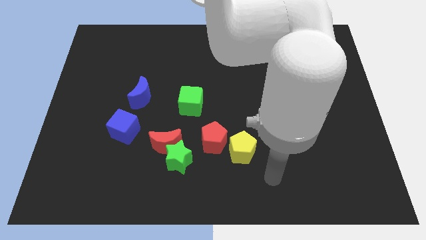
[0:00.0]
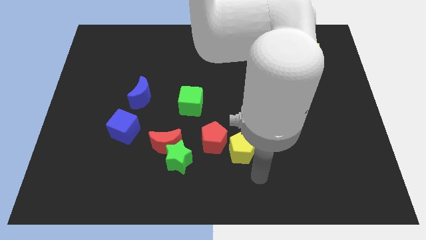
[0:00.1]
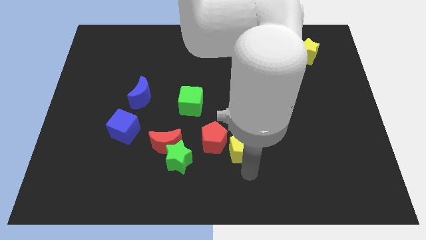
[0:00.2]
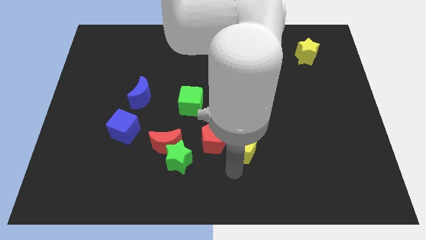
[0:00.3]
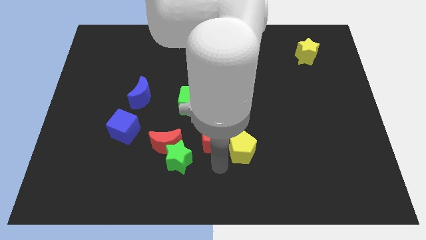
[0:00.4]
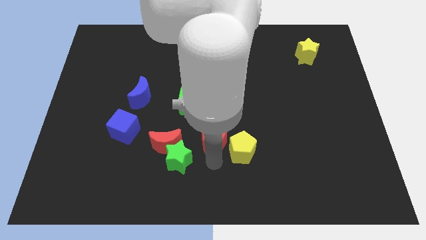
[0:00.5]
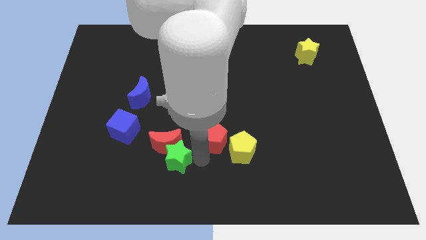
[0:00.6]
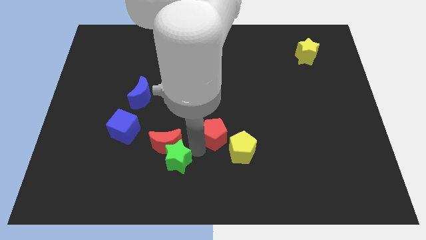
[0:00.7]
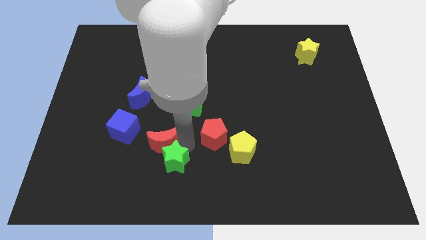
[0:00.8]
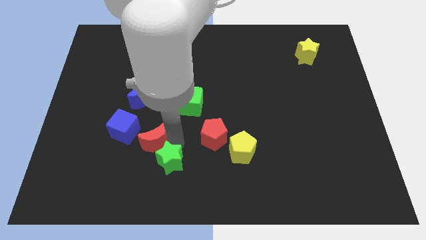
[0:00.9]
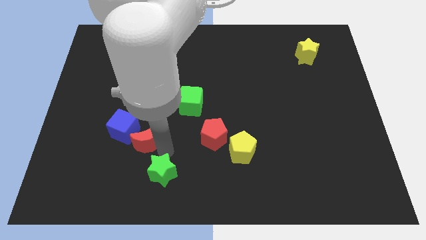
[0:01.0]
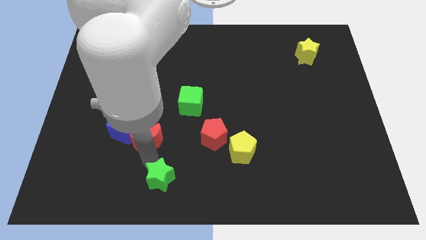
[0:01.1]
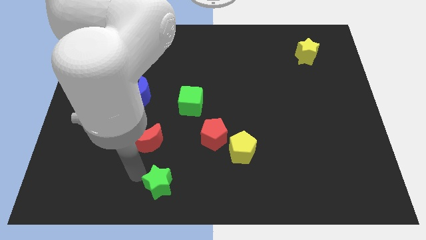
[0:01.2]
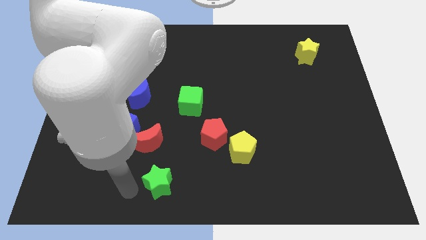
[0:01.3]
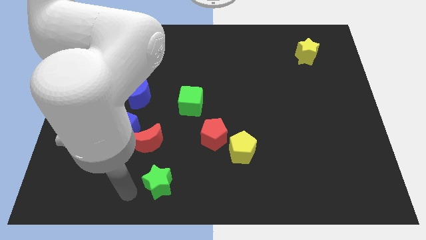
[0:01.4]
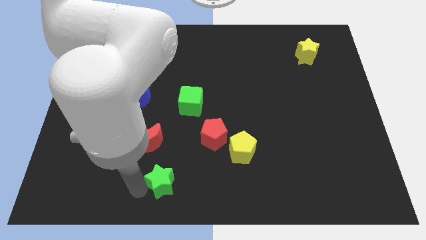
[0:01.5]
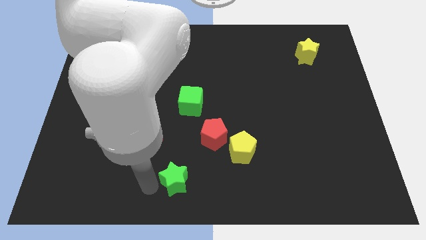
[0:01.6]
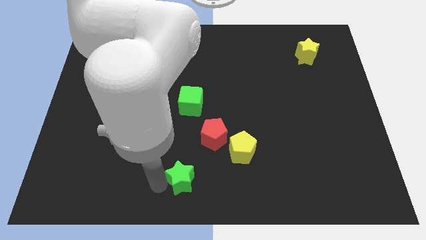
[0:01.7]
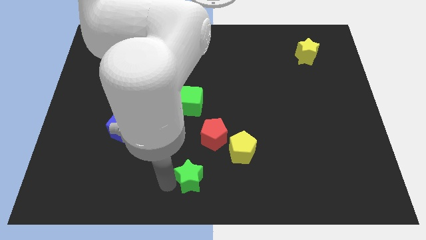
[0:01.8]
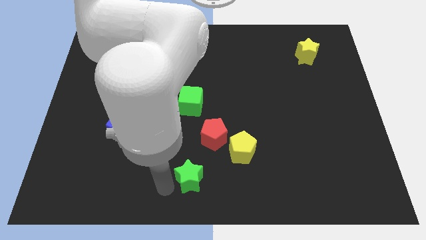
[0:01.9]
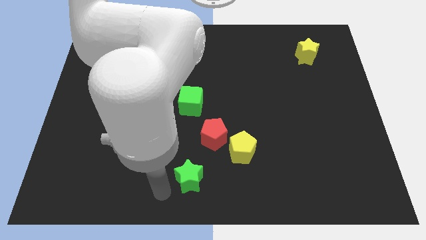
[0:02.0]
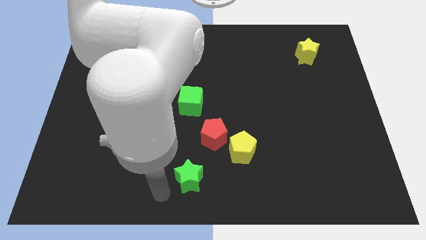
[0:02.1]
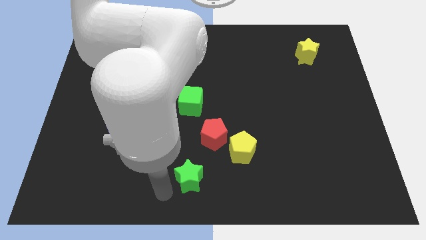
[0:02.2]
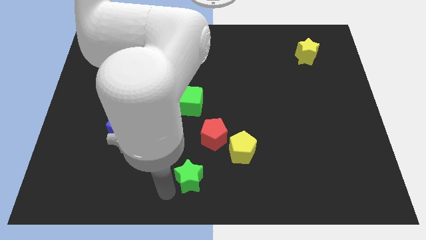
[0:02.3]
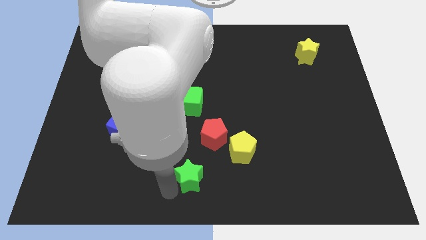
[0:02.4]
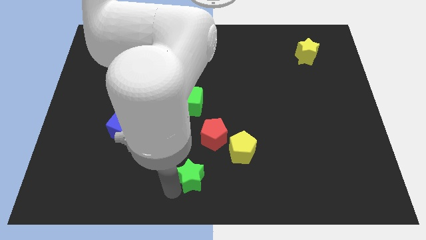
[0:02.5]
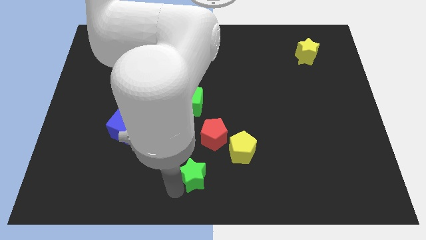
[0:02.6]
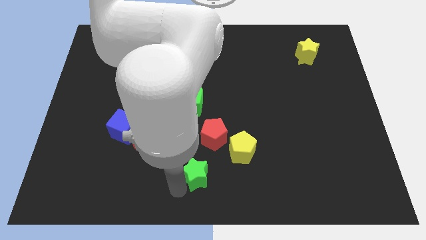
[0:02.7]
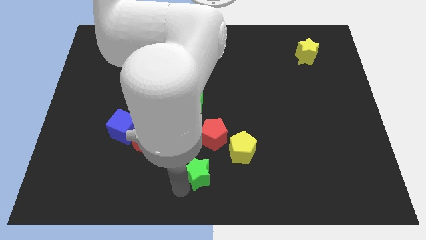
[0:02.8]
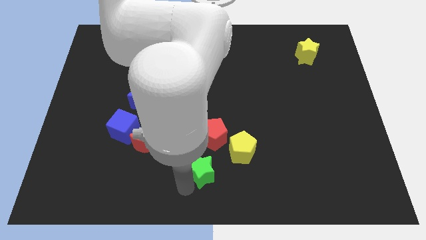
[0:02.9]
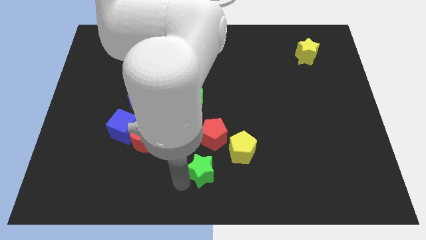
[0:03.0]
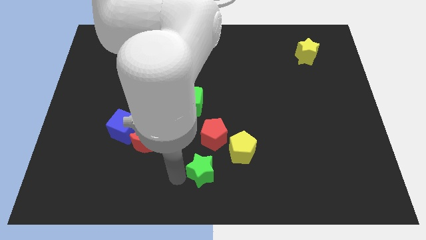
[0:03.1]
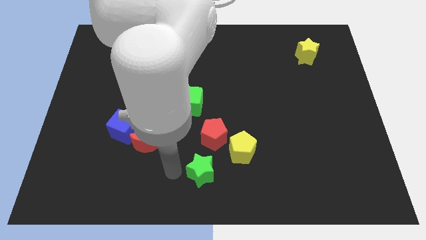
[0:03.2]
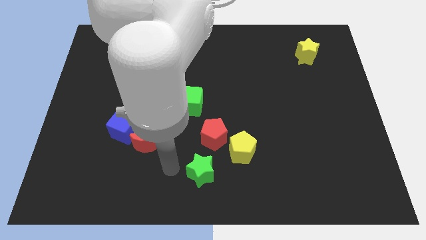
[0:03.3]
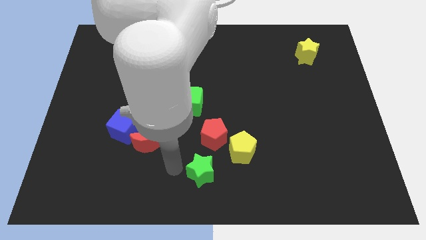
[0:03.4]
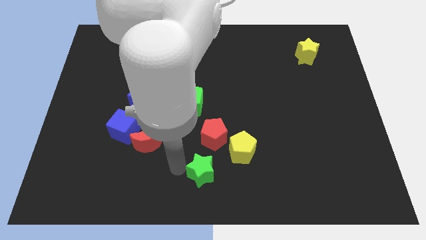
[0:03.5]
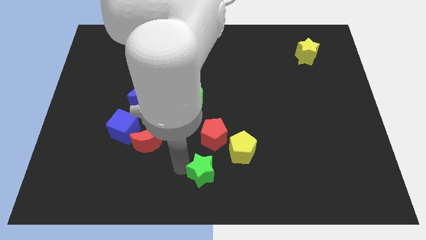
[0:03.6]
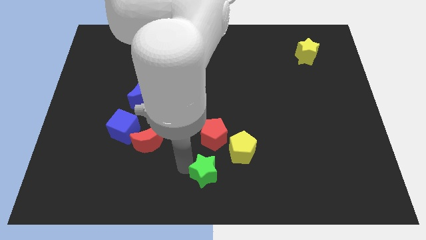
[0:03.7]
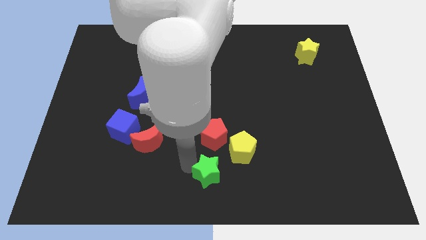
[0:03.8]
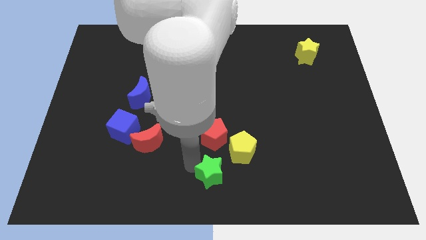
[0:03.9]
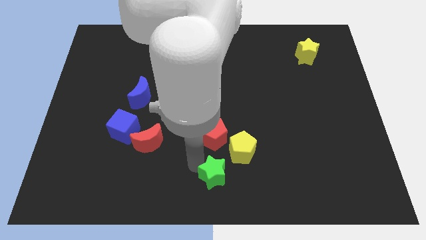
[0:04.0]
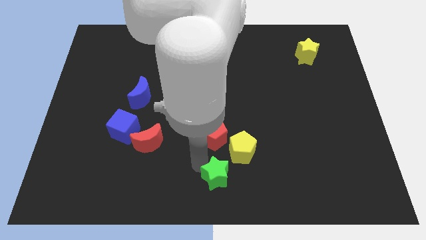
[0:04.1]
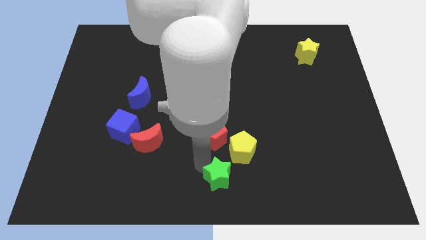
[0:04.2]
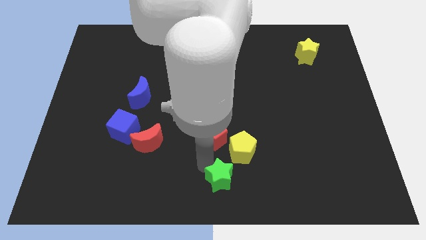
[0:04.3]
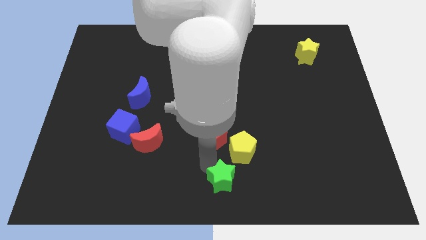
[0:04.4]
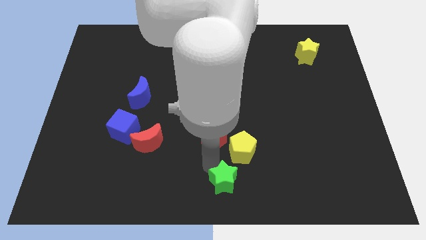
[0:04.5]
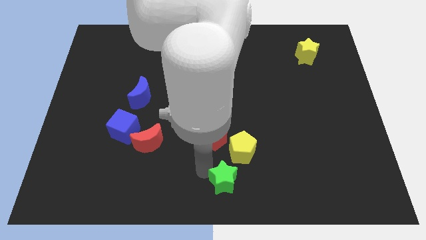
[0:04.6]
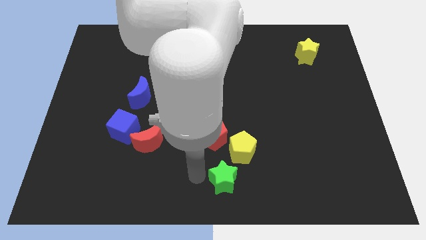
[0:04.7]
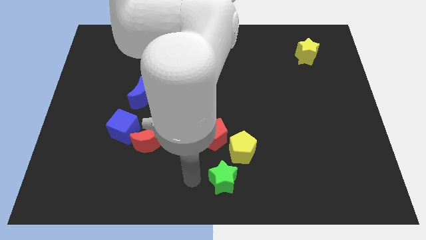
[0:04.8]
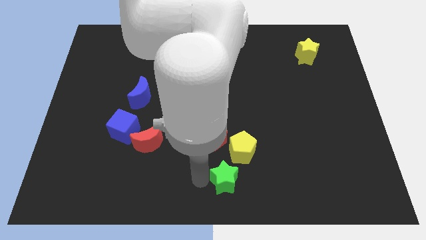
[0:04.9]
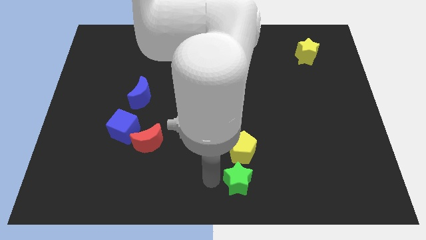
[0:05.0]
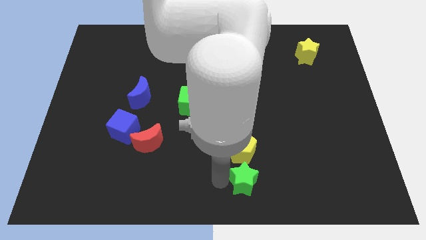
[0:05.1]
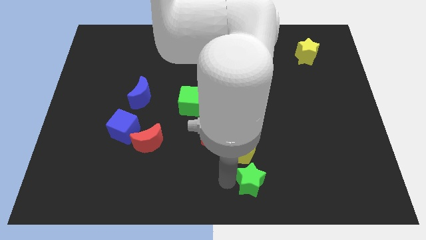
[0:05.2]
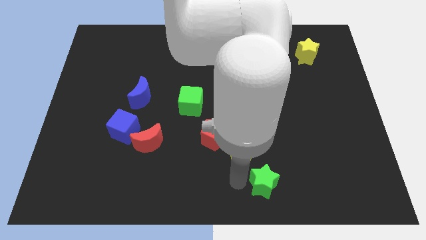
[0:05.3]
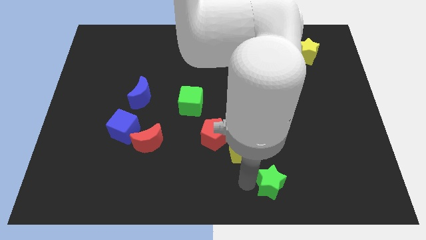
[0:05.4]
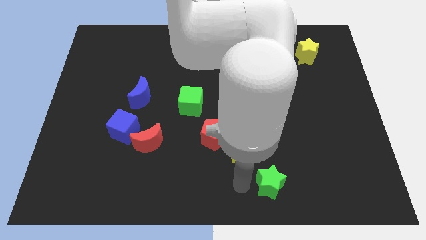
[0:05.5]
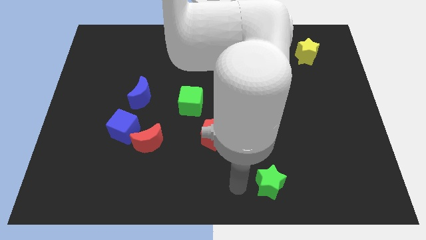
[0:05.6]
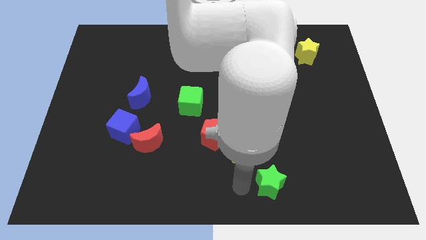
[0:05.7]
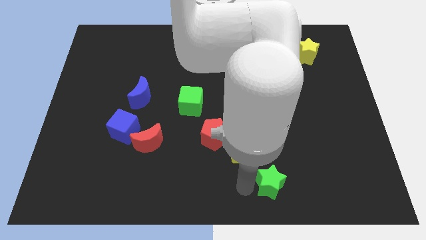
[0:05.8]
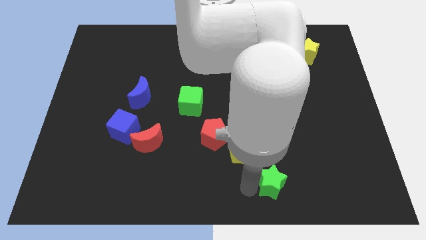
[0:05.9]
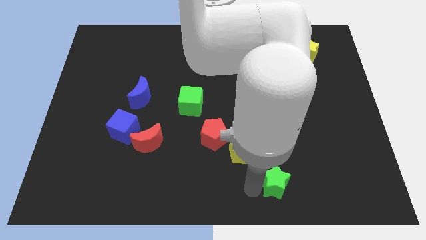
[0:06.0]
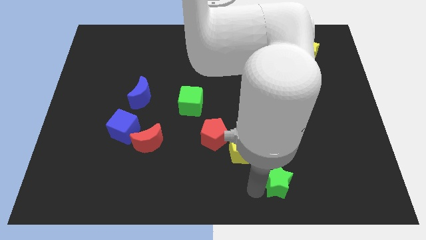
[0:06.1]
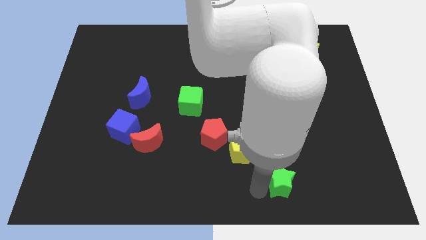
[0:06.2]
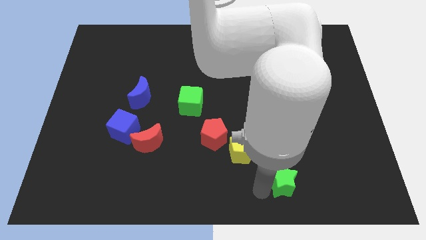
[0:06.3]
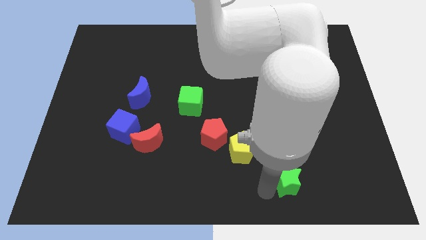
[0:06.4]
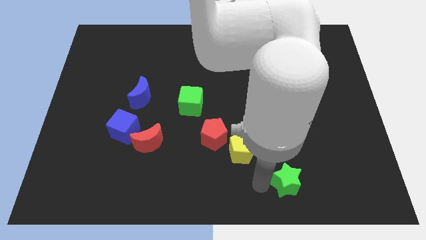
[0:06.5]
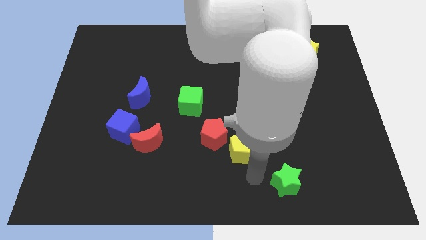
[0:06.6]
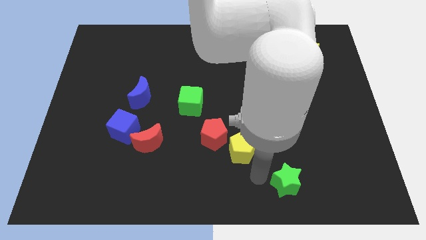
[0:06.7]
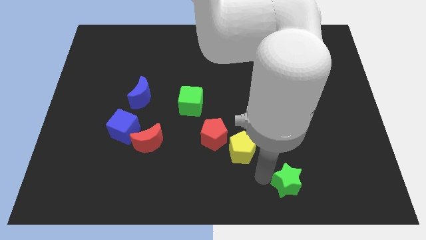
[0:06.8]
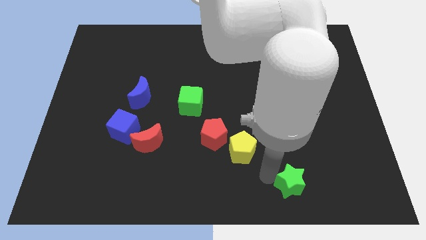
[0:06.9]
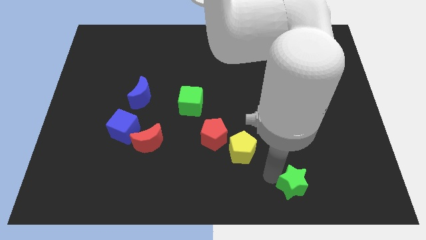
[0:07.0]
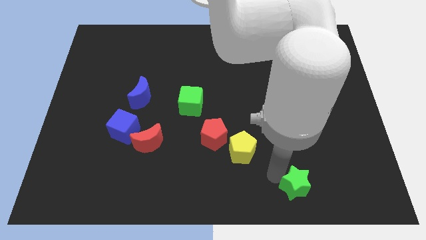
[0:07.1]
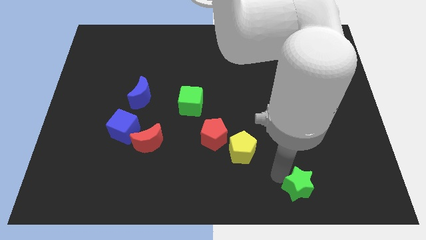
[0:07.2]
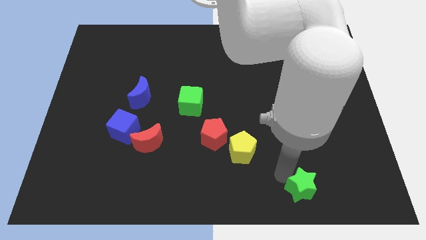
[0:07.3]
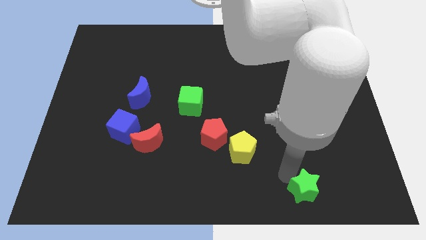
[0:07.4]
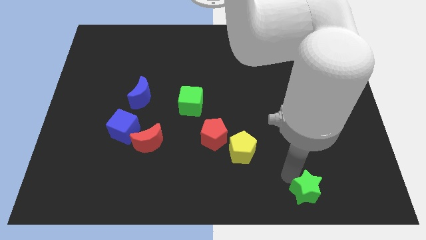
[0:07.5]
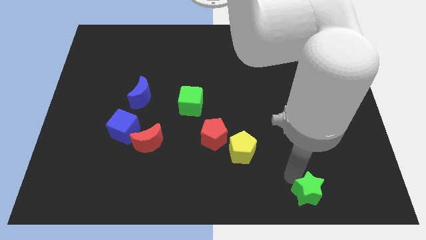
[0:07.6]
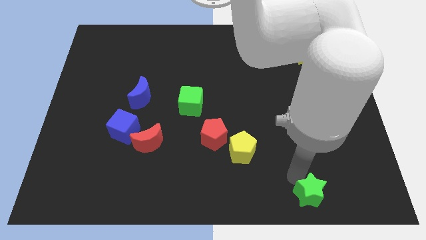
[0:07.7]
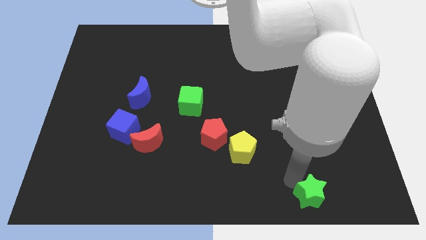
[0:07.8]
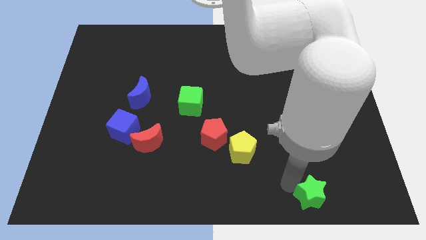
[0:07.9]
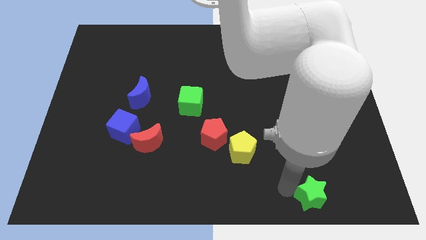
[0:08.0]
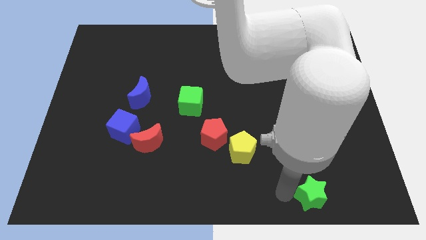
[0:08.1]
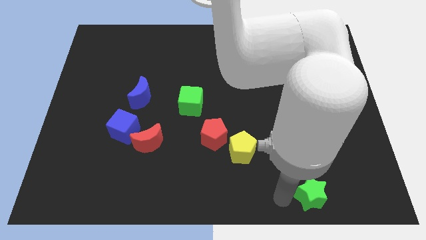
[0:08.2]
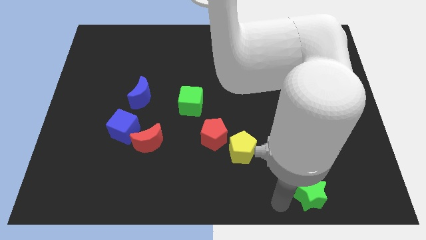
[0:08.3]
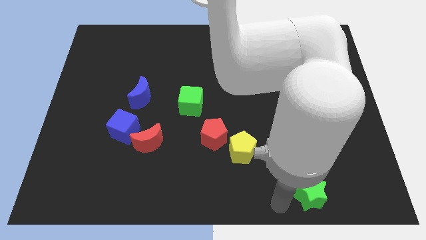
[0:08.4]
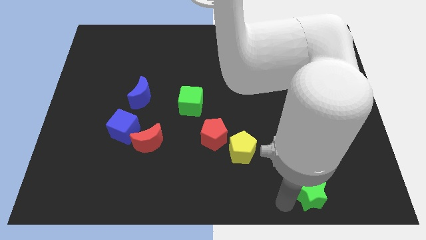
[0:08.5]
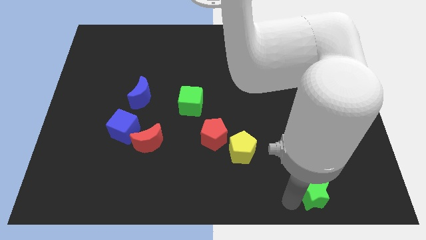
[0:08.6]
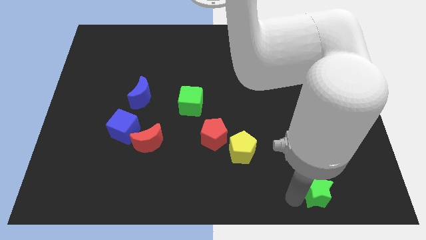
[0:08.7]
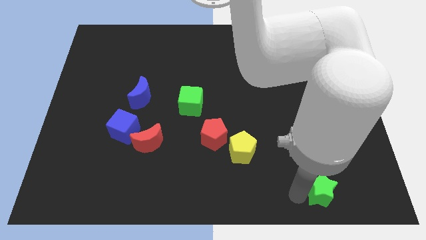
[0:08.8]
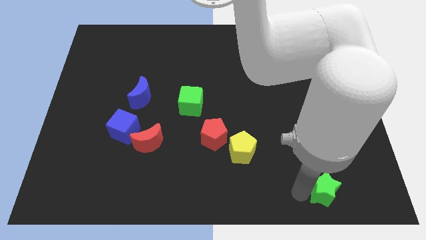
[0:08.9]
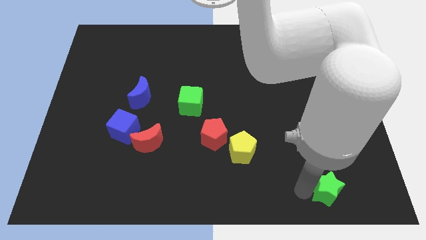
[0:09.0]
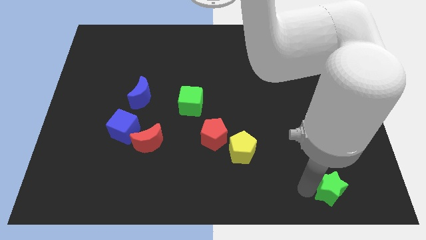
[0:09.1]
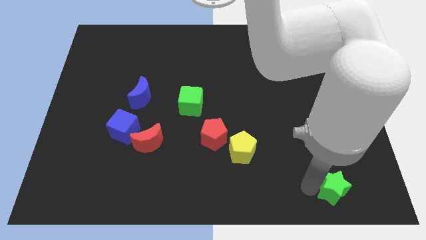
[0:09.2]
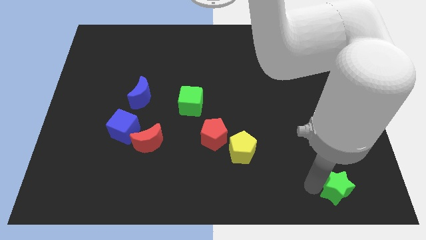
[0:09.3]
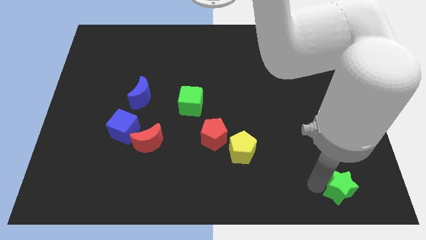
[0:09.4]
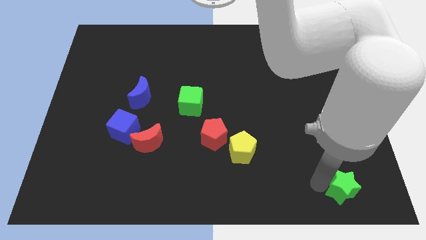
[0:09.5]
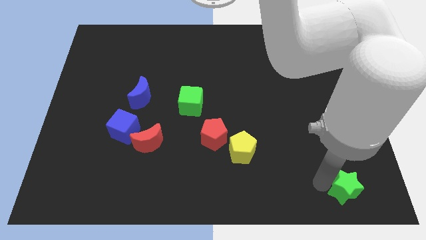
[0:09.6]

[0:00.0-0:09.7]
put the green star to the bottom right of the board
